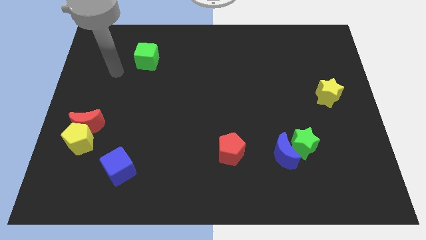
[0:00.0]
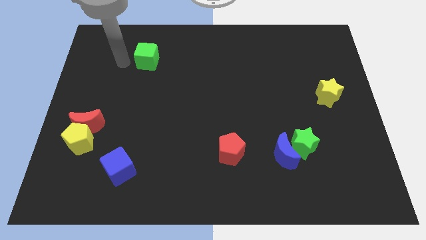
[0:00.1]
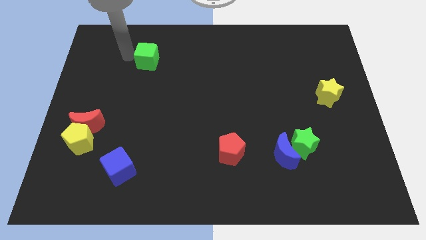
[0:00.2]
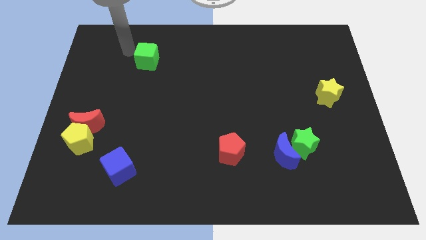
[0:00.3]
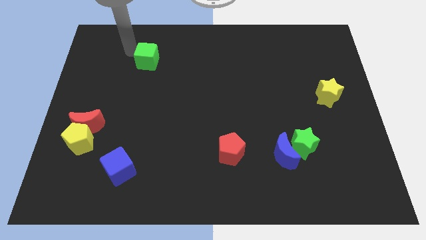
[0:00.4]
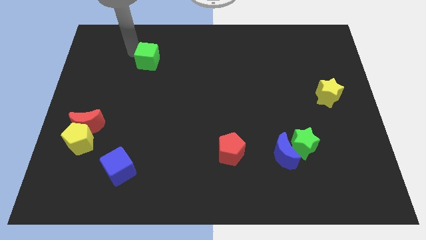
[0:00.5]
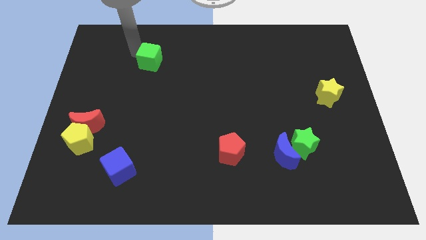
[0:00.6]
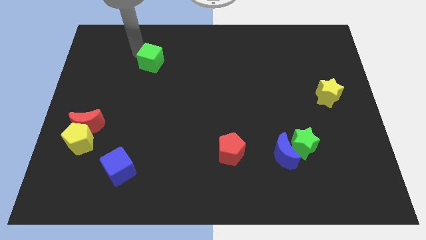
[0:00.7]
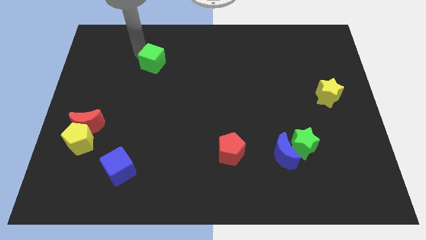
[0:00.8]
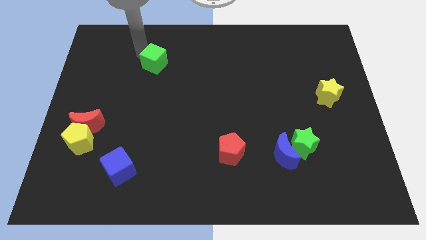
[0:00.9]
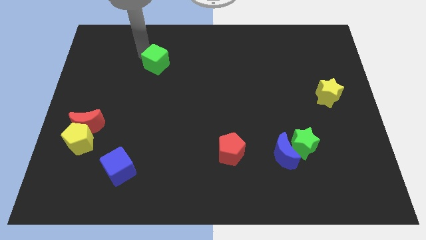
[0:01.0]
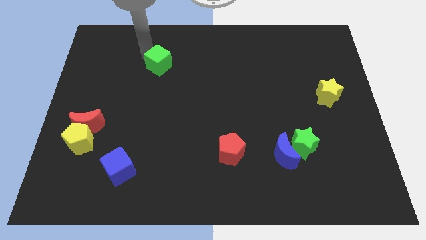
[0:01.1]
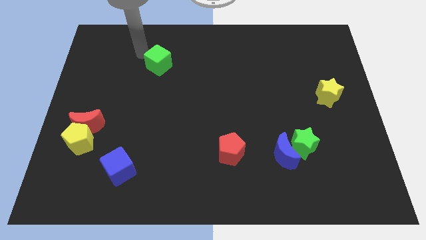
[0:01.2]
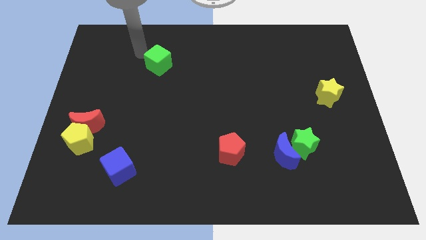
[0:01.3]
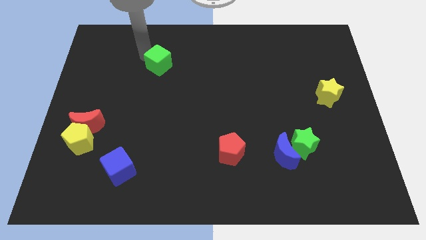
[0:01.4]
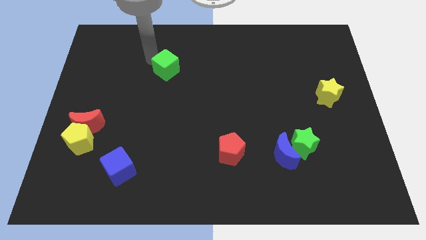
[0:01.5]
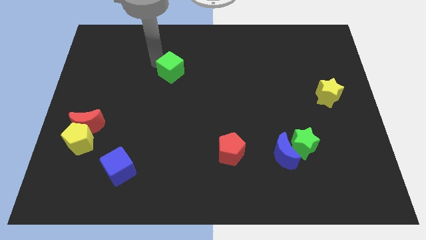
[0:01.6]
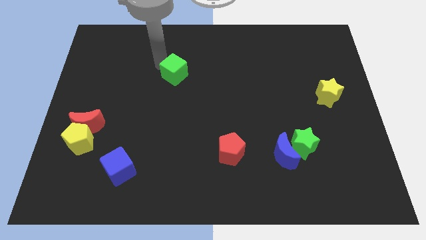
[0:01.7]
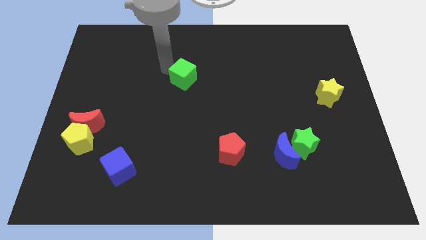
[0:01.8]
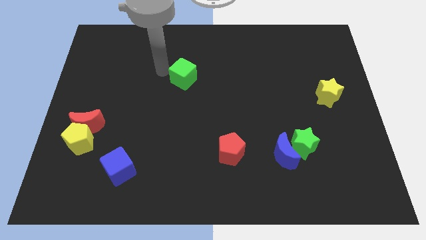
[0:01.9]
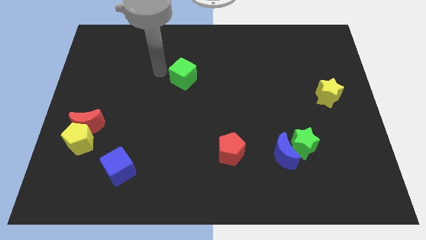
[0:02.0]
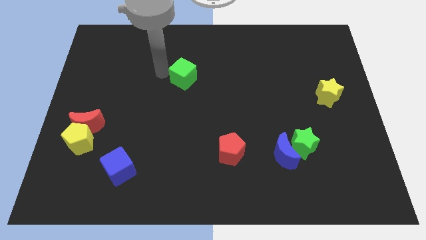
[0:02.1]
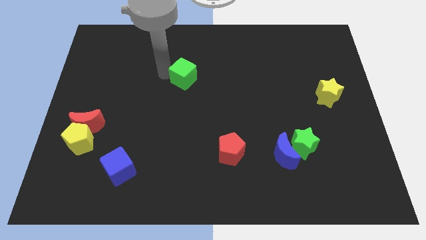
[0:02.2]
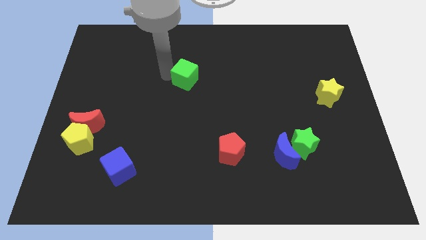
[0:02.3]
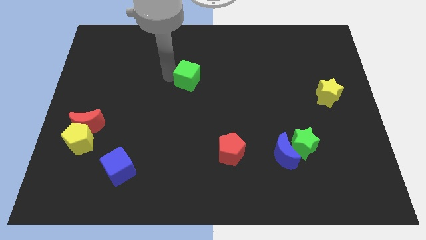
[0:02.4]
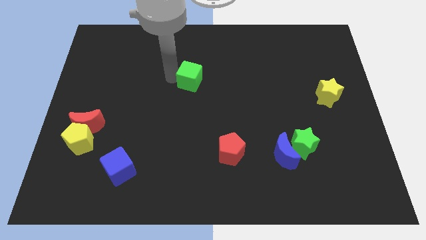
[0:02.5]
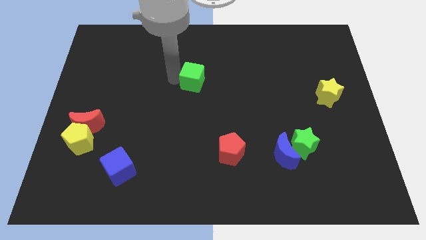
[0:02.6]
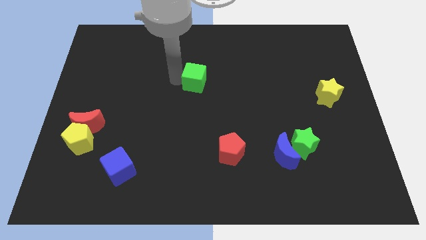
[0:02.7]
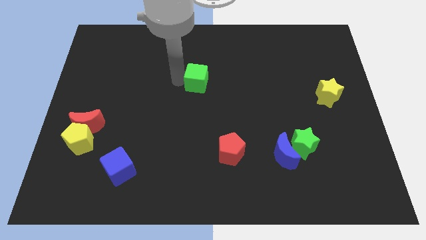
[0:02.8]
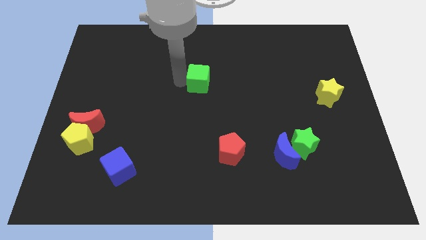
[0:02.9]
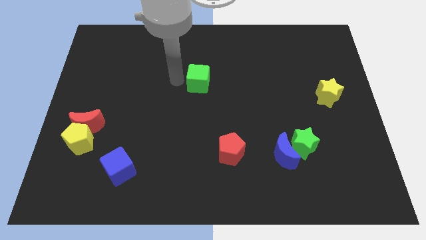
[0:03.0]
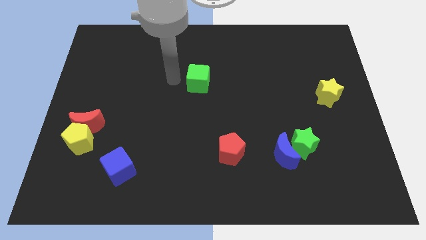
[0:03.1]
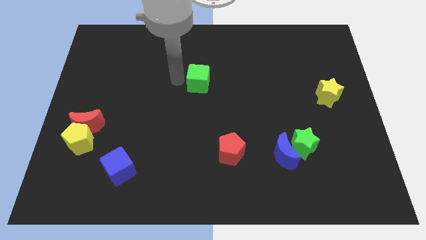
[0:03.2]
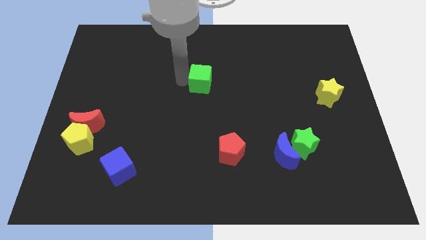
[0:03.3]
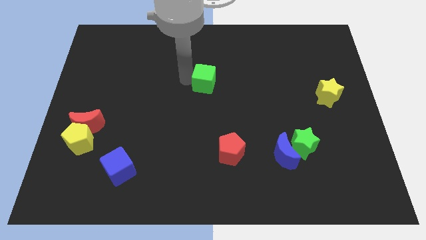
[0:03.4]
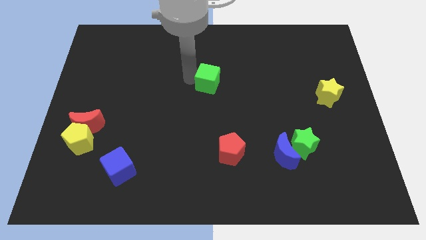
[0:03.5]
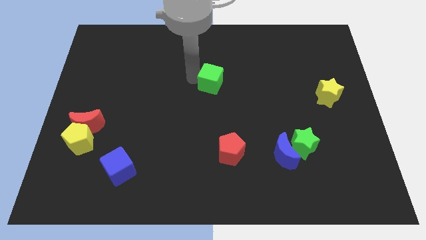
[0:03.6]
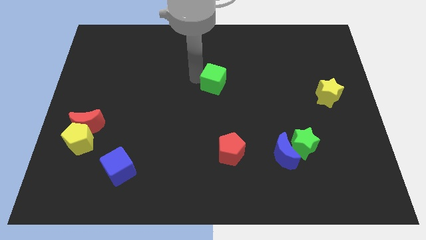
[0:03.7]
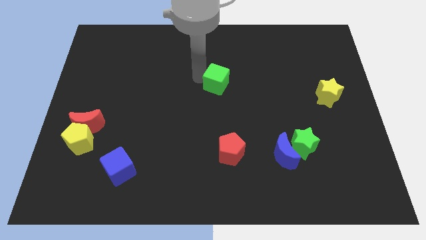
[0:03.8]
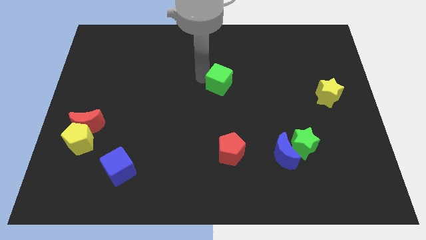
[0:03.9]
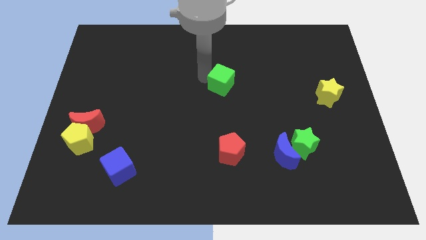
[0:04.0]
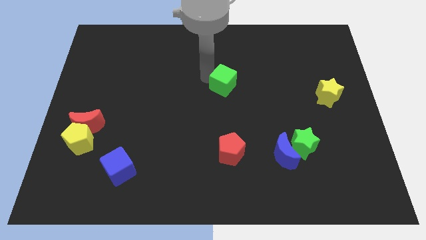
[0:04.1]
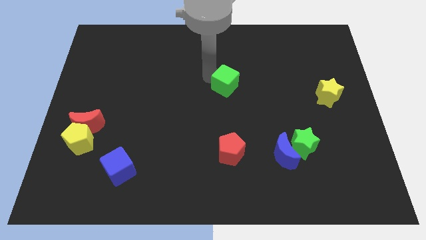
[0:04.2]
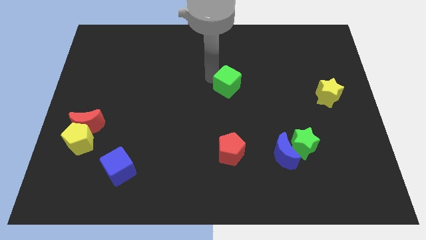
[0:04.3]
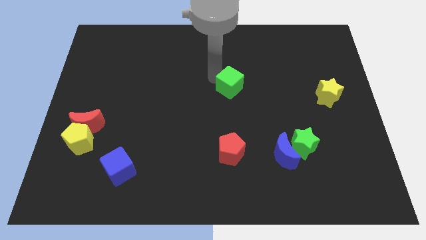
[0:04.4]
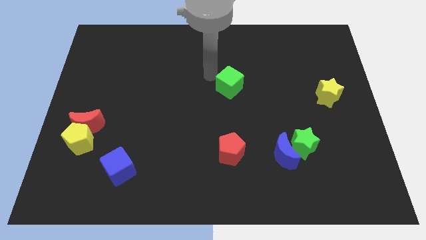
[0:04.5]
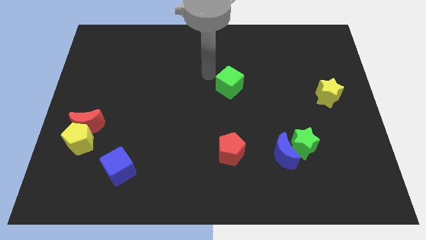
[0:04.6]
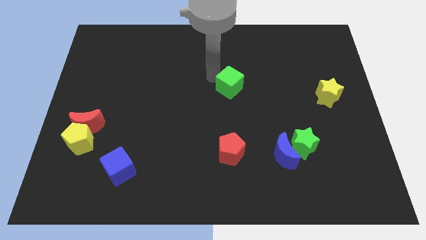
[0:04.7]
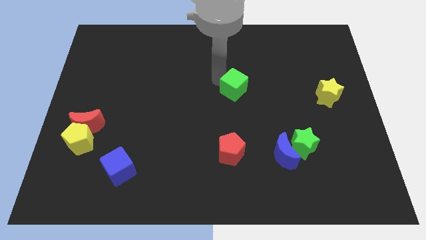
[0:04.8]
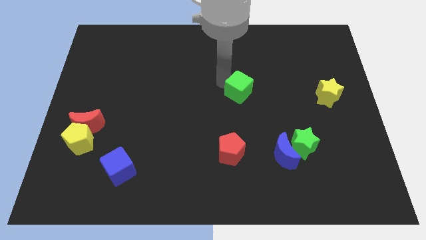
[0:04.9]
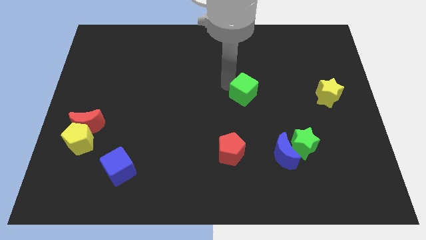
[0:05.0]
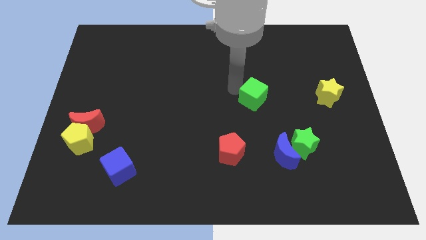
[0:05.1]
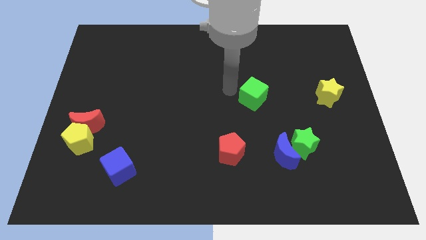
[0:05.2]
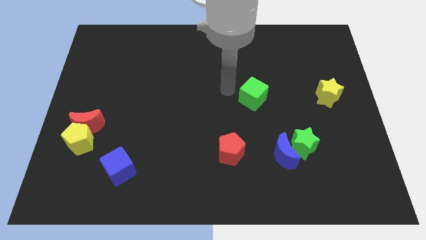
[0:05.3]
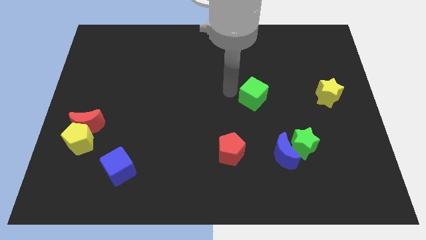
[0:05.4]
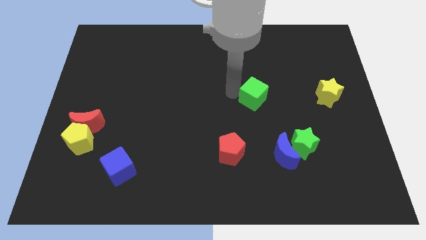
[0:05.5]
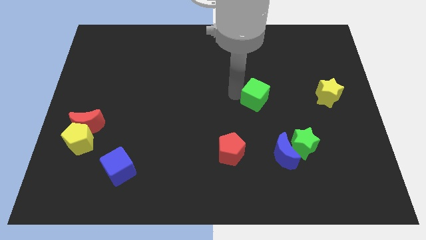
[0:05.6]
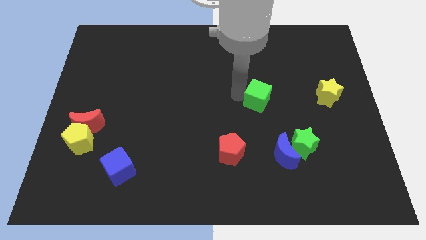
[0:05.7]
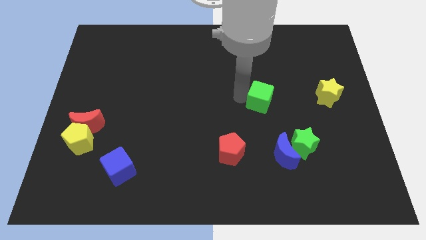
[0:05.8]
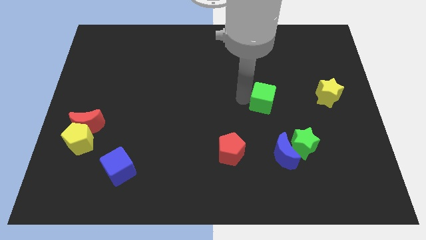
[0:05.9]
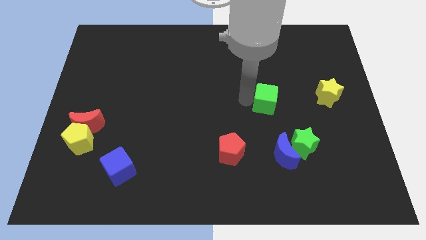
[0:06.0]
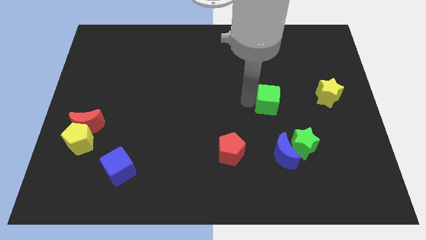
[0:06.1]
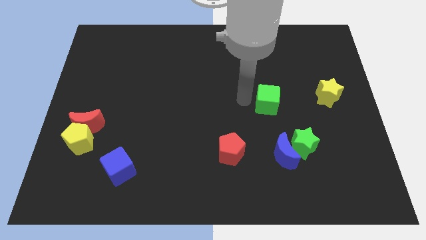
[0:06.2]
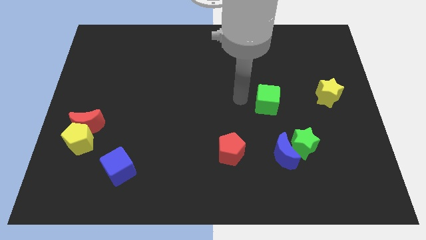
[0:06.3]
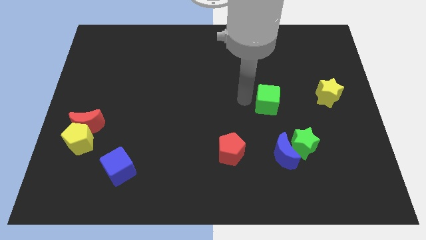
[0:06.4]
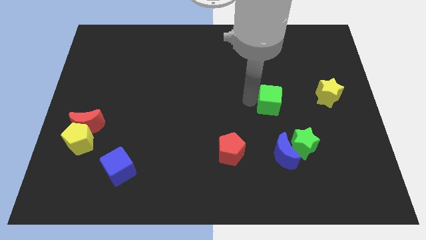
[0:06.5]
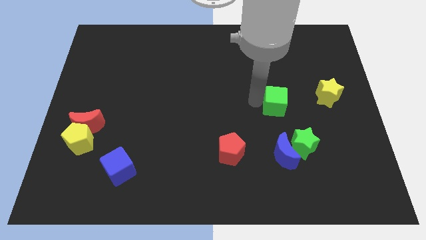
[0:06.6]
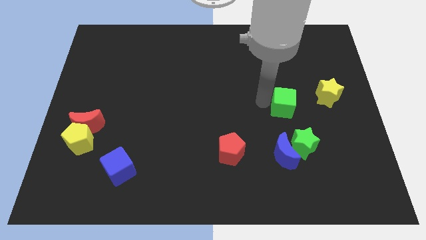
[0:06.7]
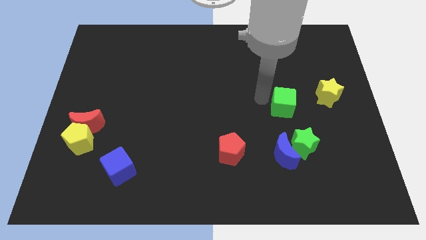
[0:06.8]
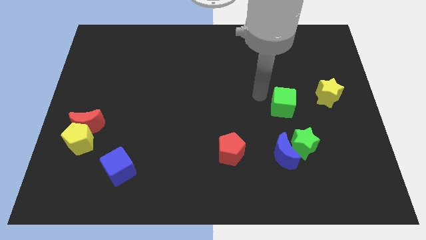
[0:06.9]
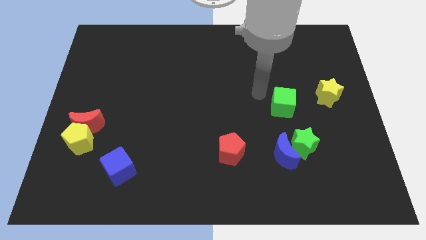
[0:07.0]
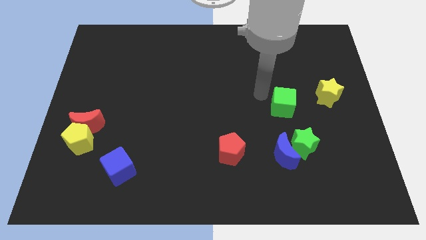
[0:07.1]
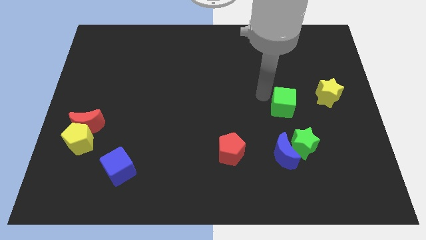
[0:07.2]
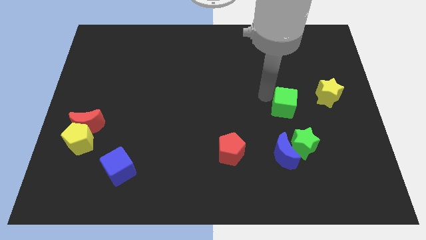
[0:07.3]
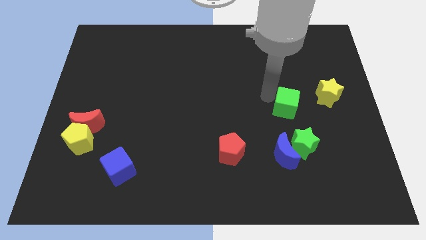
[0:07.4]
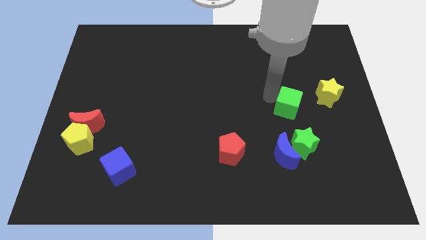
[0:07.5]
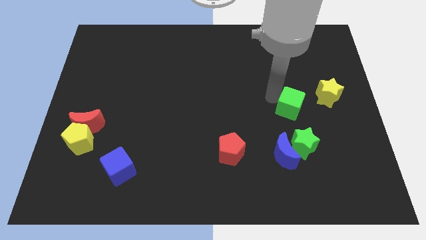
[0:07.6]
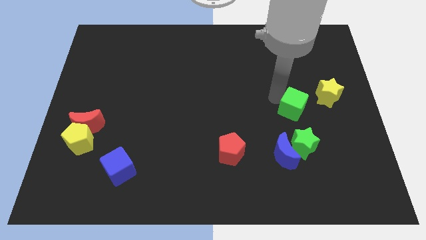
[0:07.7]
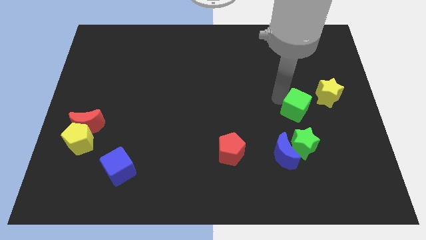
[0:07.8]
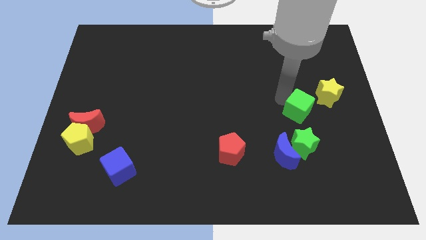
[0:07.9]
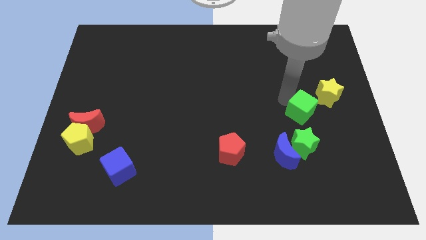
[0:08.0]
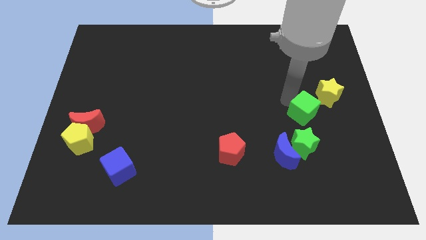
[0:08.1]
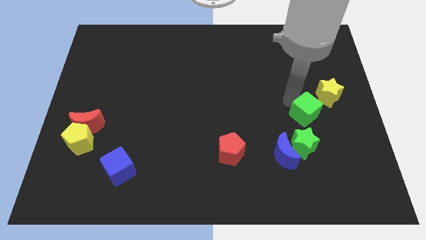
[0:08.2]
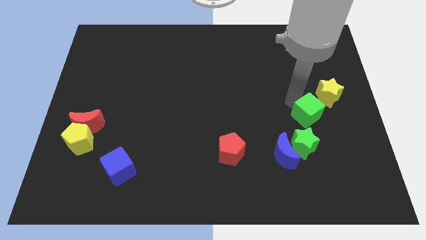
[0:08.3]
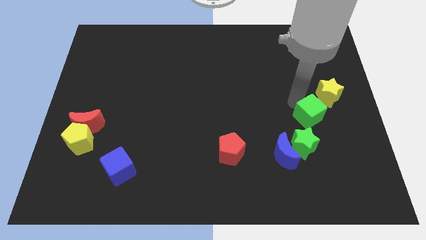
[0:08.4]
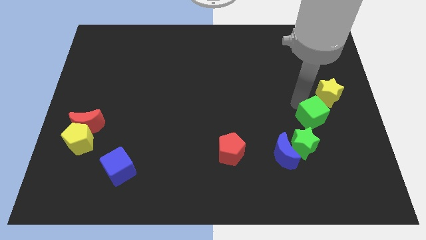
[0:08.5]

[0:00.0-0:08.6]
slide the green cube to the bottom of the yellow star
